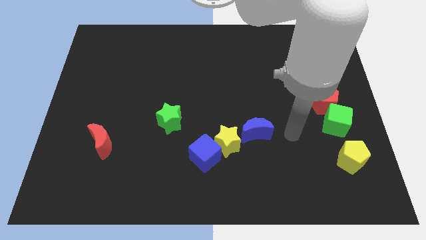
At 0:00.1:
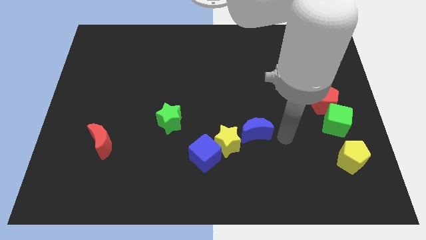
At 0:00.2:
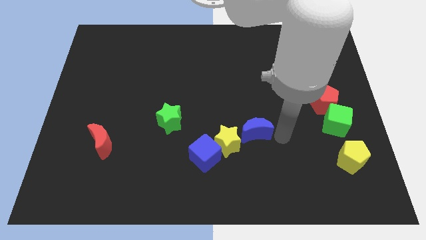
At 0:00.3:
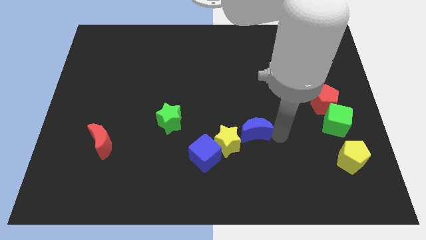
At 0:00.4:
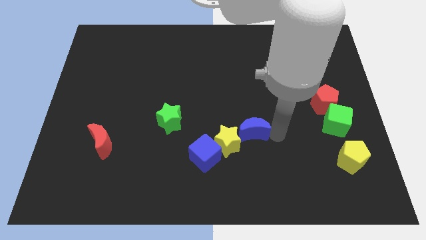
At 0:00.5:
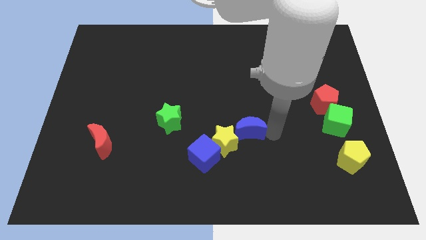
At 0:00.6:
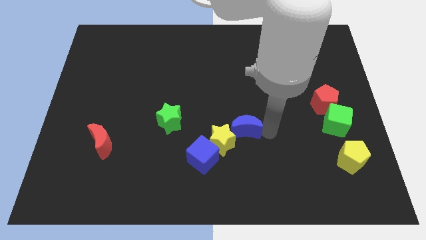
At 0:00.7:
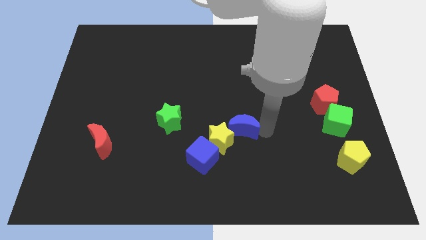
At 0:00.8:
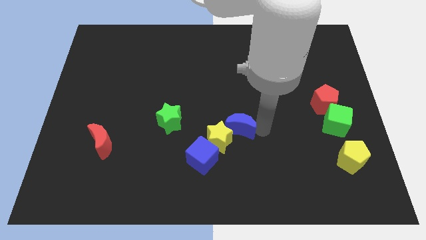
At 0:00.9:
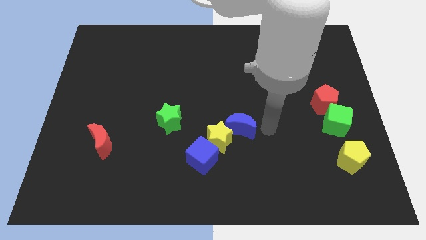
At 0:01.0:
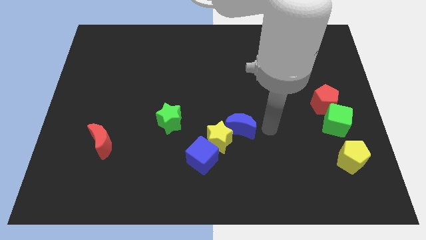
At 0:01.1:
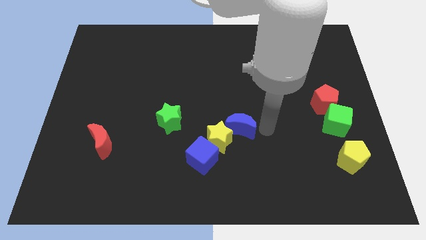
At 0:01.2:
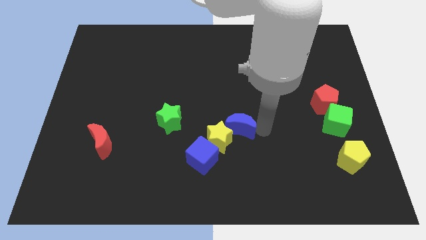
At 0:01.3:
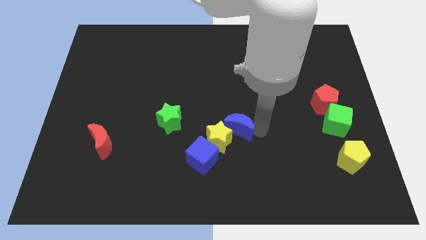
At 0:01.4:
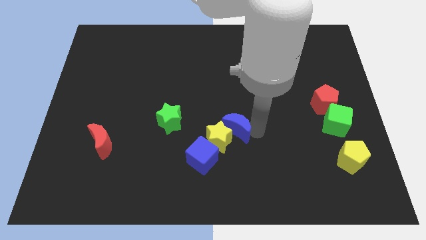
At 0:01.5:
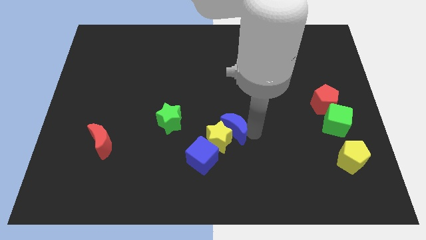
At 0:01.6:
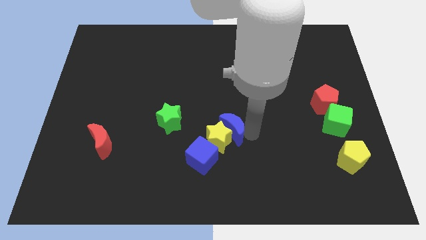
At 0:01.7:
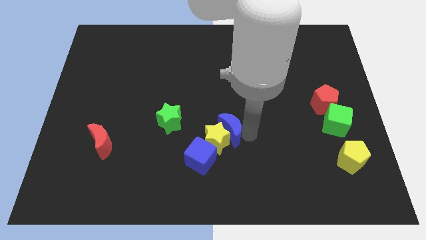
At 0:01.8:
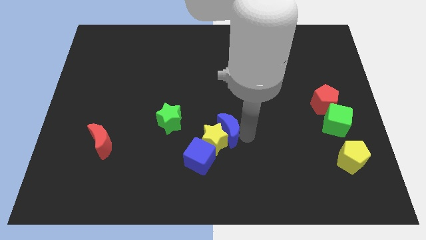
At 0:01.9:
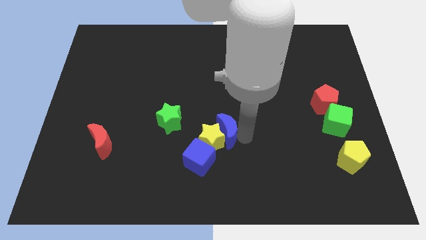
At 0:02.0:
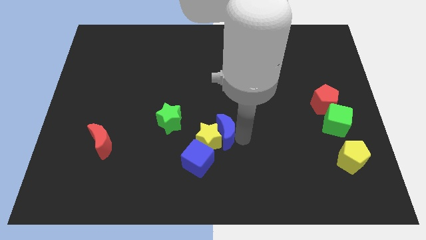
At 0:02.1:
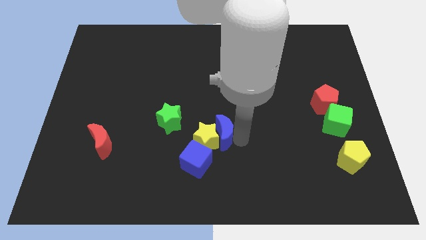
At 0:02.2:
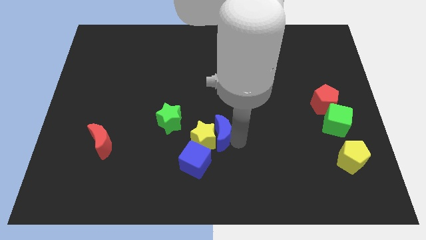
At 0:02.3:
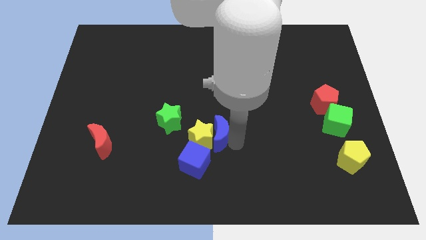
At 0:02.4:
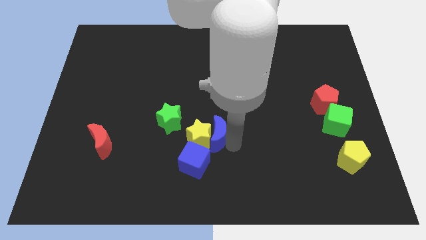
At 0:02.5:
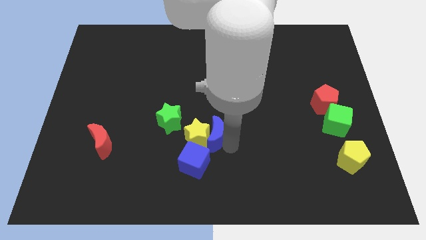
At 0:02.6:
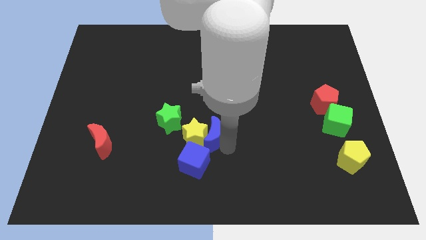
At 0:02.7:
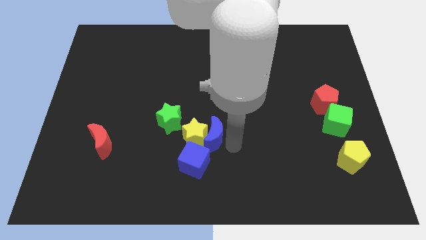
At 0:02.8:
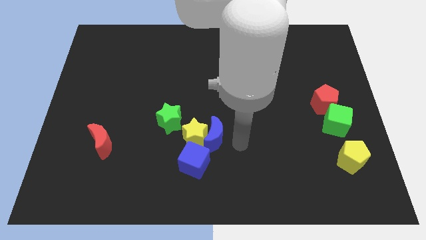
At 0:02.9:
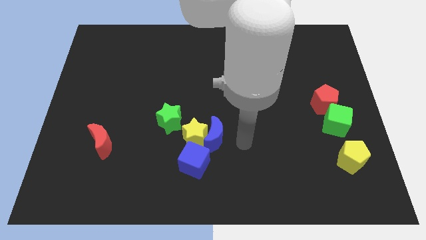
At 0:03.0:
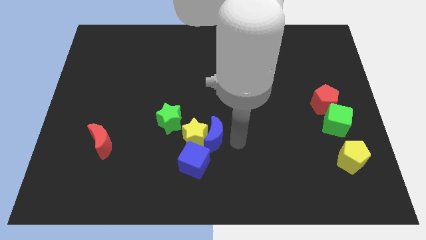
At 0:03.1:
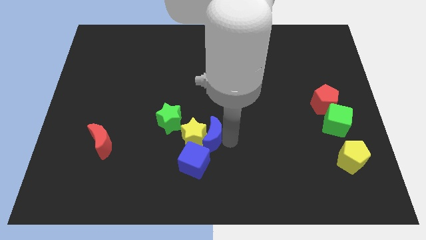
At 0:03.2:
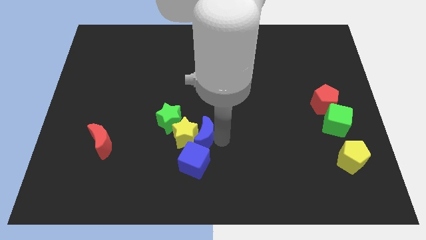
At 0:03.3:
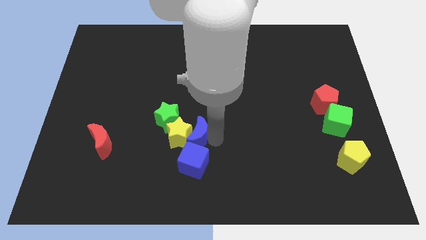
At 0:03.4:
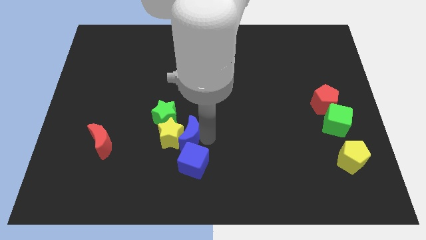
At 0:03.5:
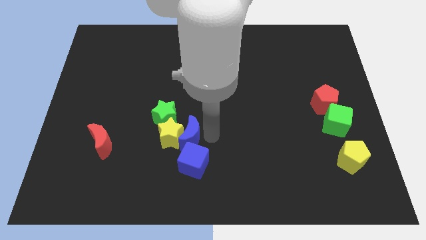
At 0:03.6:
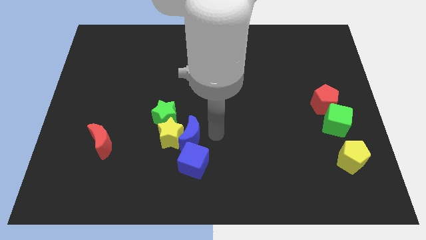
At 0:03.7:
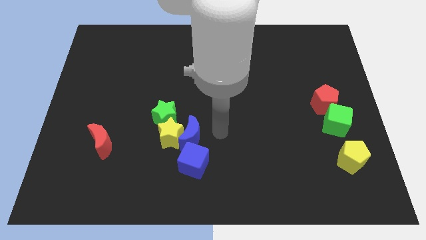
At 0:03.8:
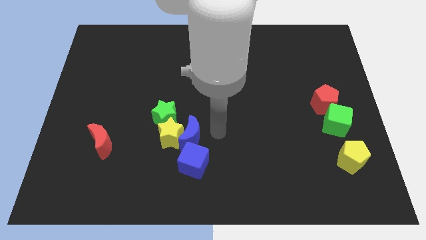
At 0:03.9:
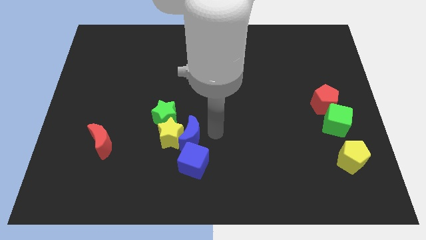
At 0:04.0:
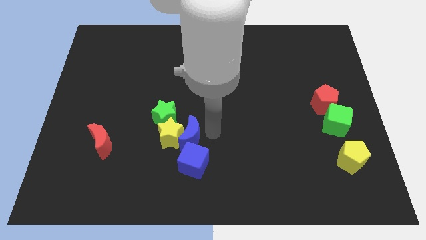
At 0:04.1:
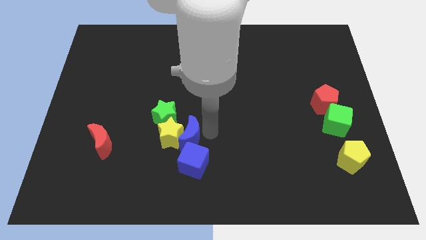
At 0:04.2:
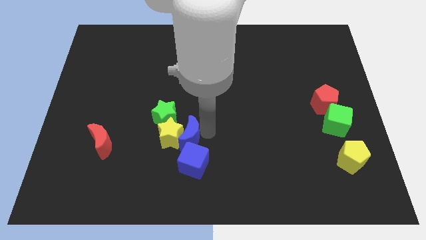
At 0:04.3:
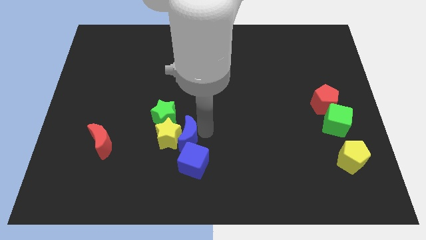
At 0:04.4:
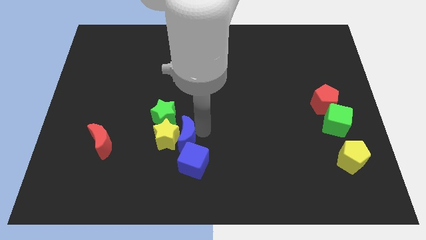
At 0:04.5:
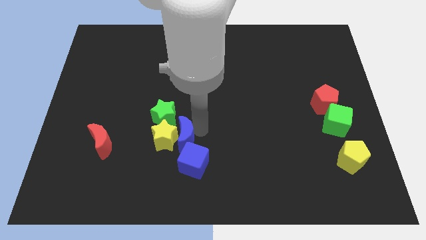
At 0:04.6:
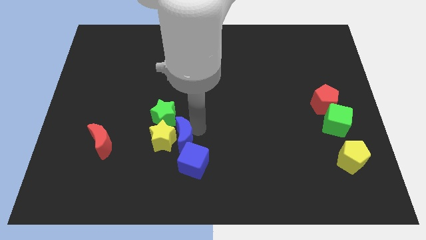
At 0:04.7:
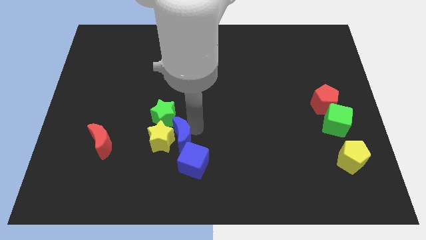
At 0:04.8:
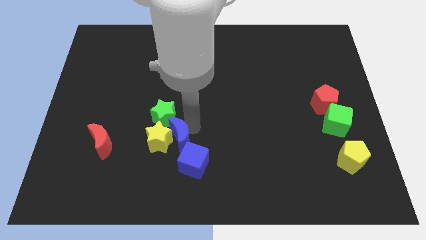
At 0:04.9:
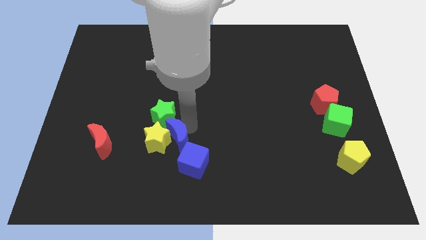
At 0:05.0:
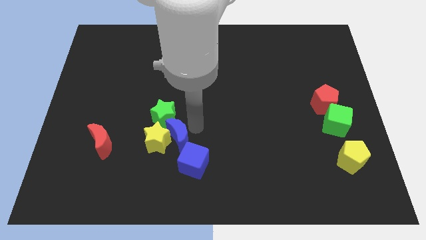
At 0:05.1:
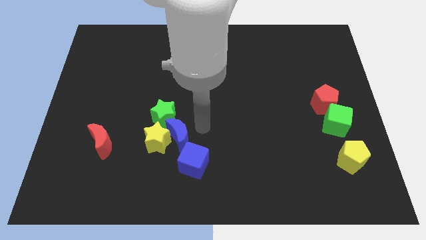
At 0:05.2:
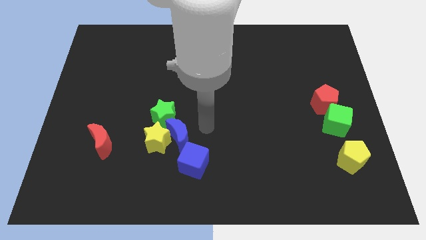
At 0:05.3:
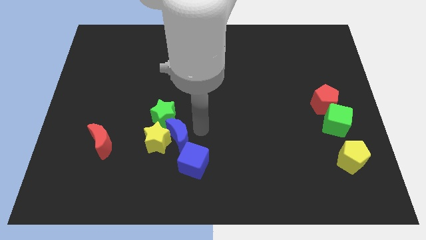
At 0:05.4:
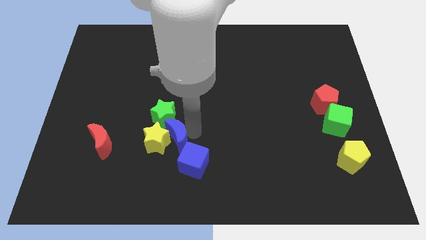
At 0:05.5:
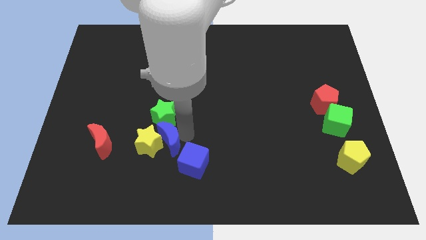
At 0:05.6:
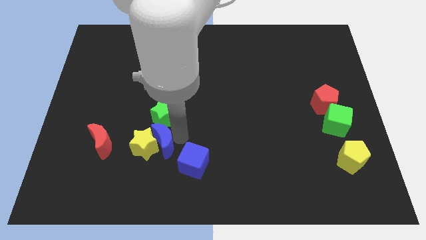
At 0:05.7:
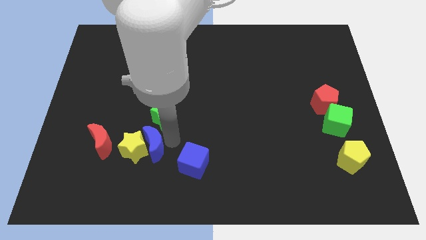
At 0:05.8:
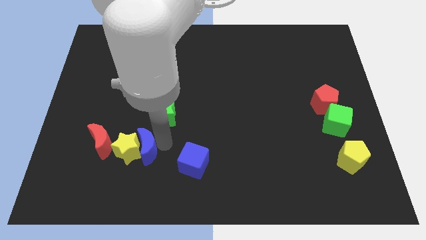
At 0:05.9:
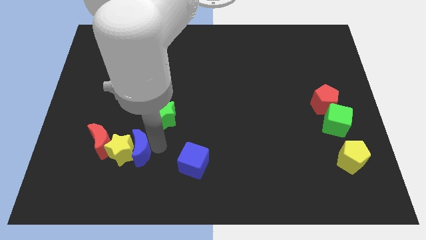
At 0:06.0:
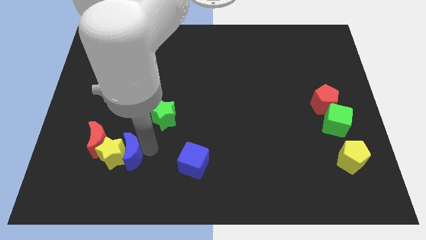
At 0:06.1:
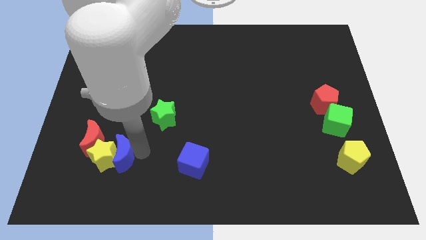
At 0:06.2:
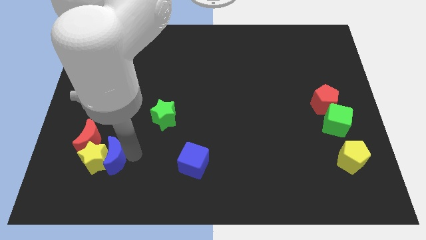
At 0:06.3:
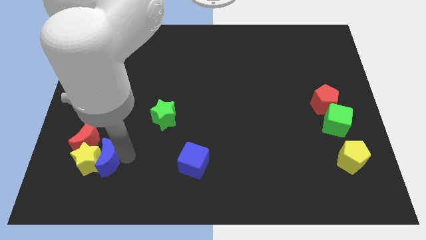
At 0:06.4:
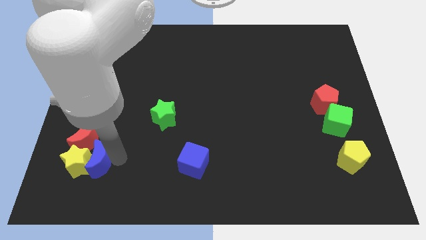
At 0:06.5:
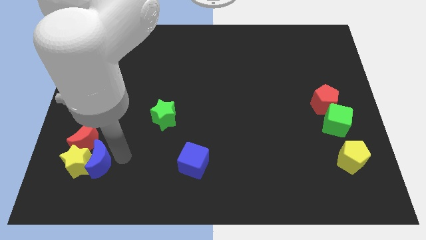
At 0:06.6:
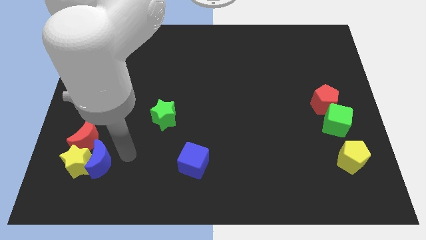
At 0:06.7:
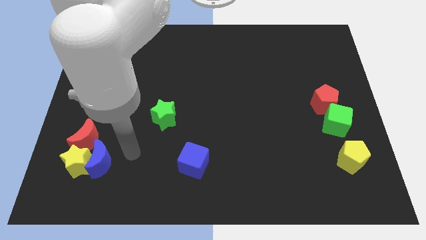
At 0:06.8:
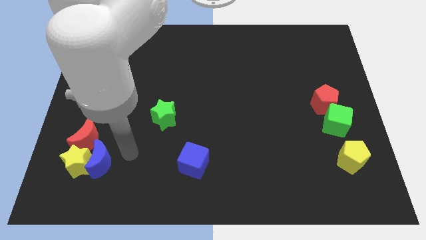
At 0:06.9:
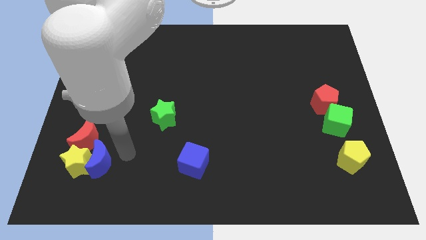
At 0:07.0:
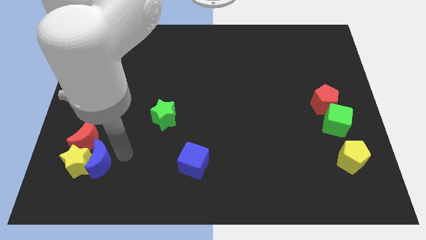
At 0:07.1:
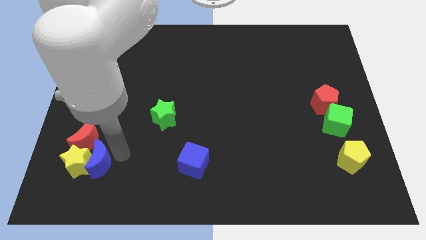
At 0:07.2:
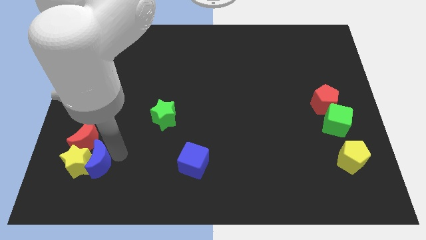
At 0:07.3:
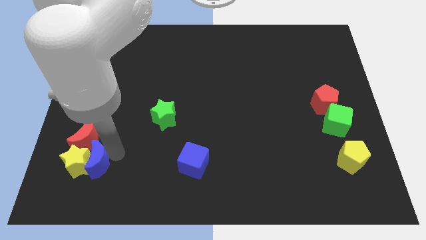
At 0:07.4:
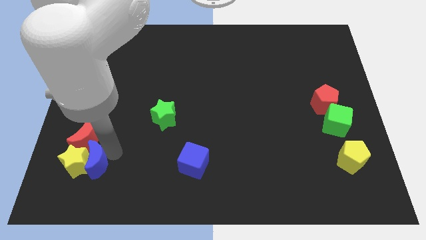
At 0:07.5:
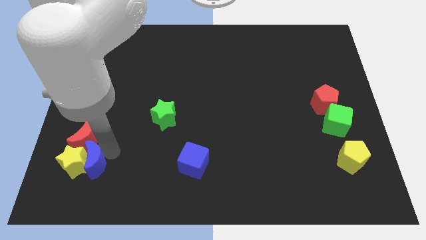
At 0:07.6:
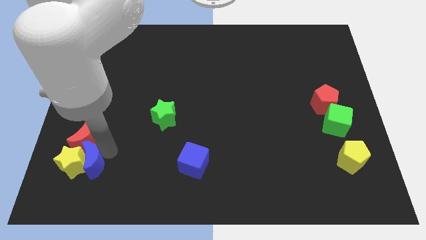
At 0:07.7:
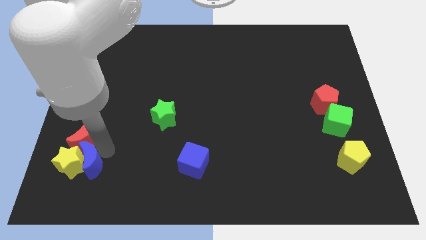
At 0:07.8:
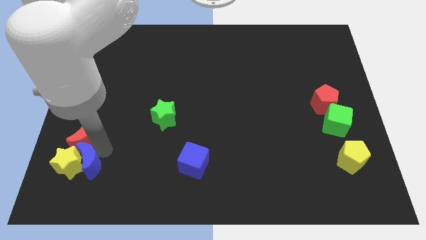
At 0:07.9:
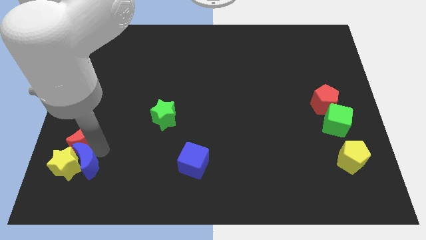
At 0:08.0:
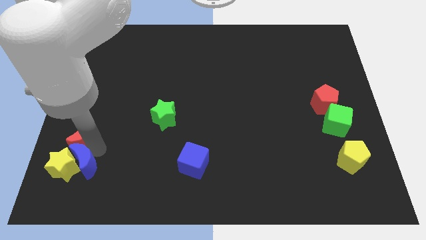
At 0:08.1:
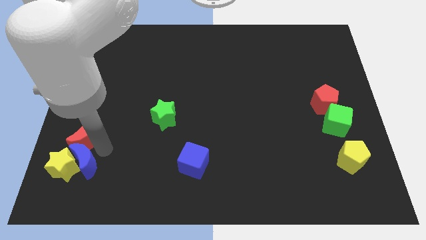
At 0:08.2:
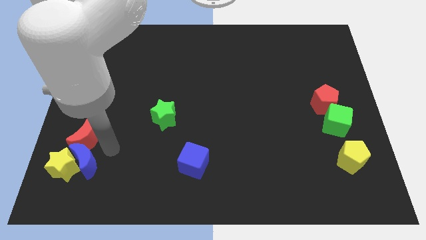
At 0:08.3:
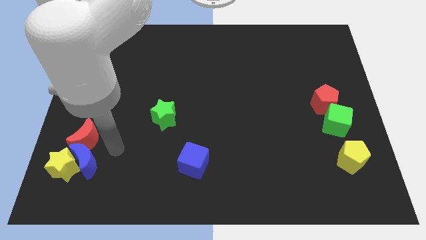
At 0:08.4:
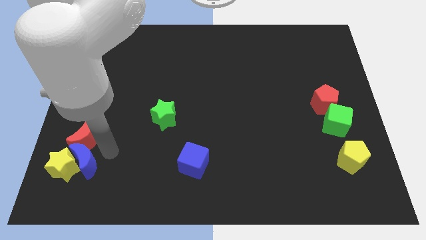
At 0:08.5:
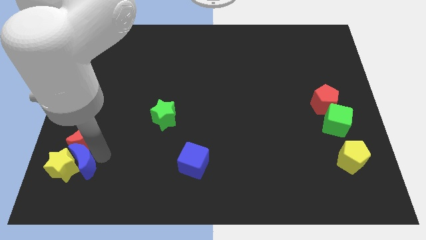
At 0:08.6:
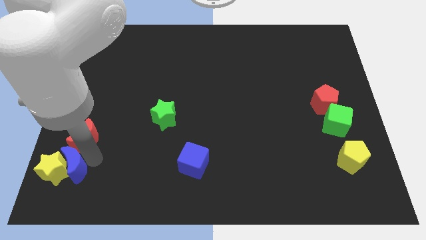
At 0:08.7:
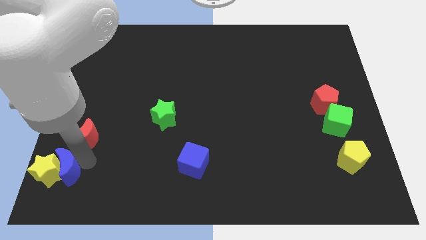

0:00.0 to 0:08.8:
push the blue moon to the bottom left
